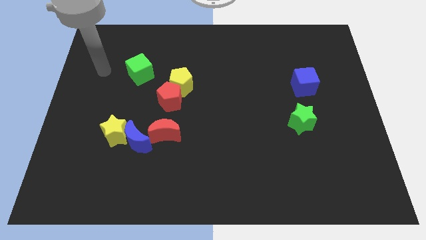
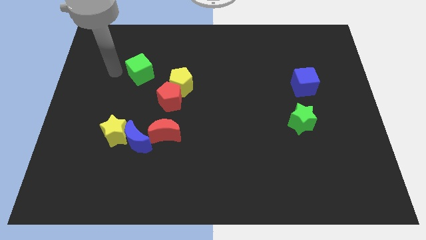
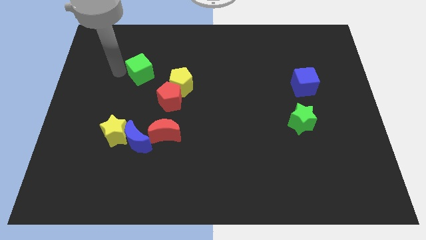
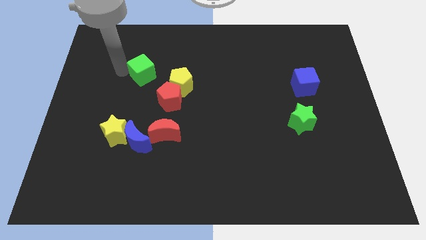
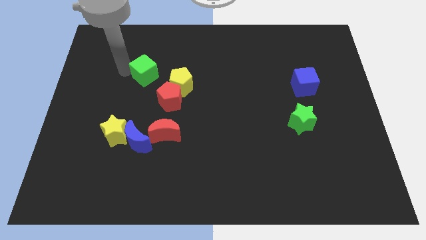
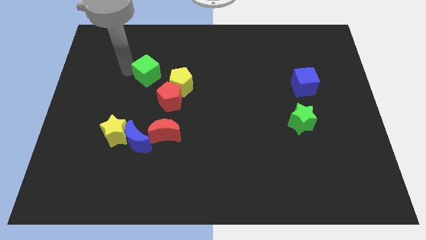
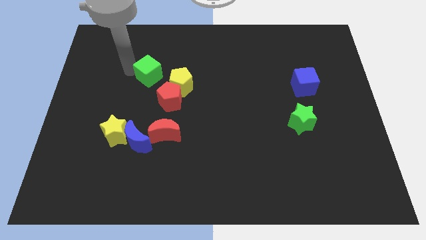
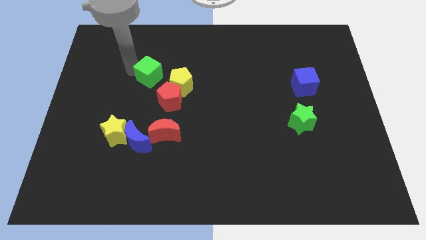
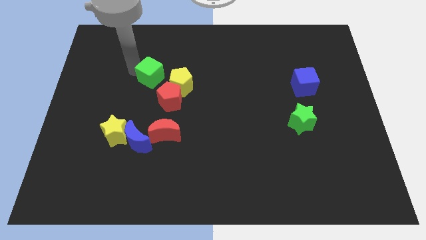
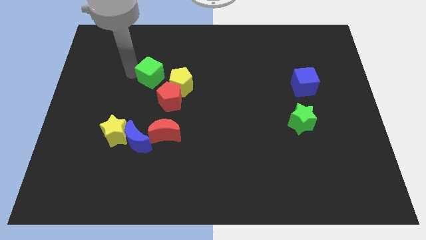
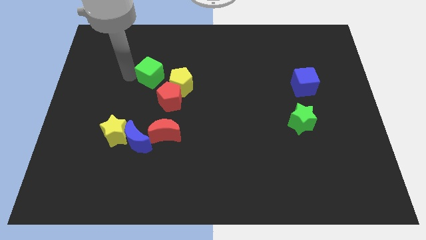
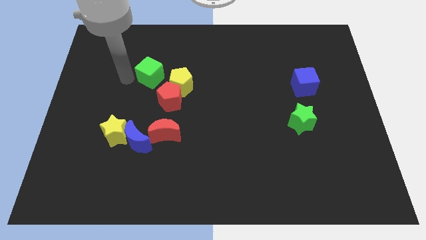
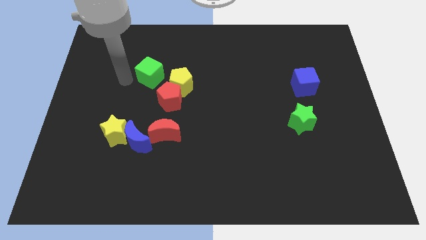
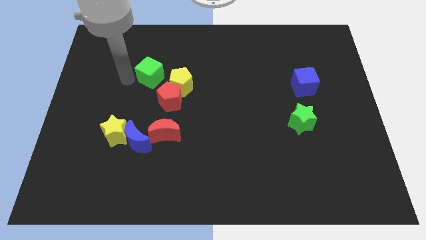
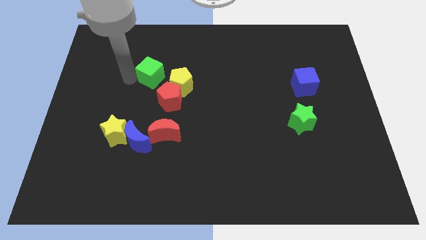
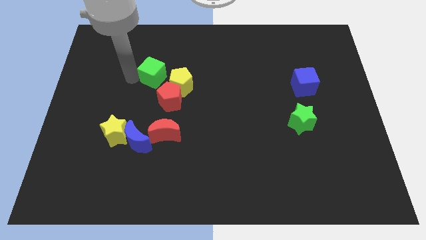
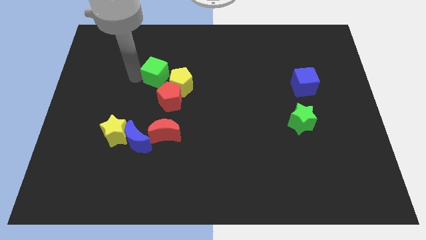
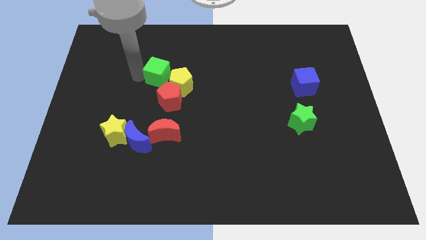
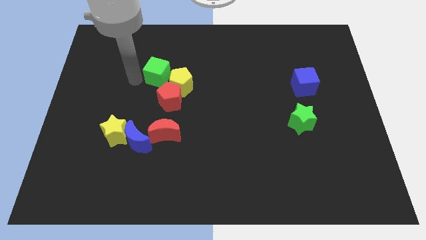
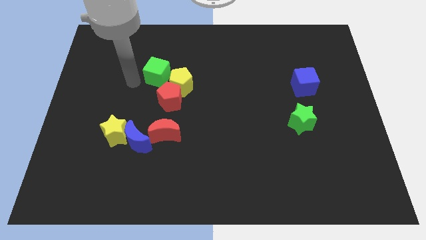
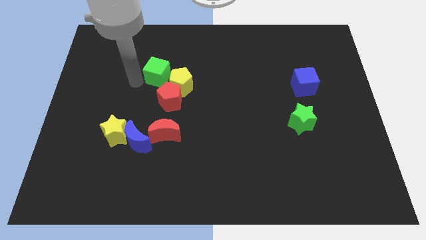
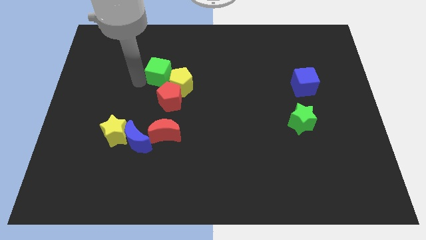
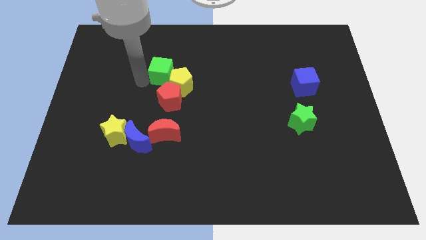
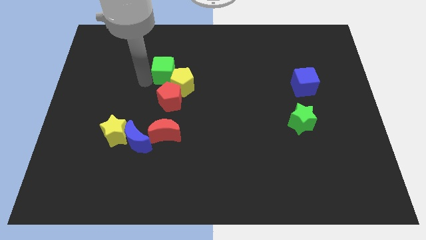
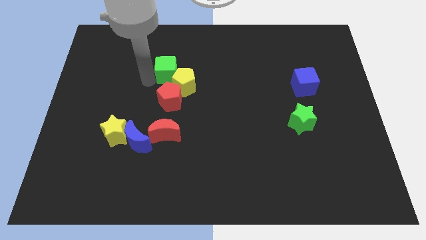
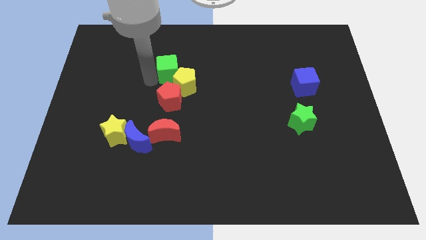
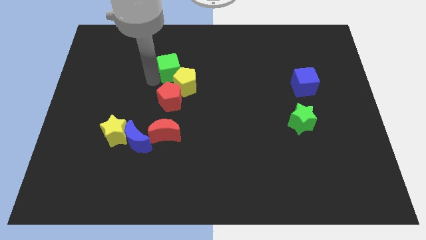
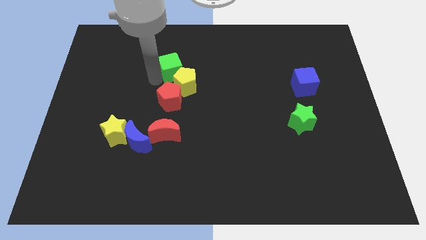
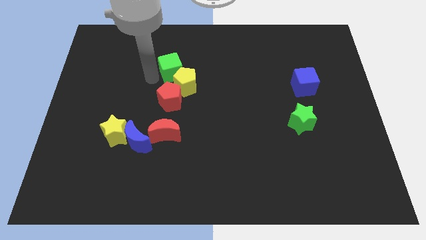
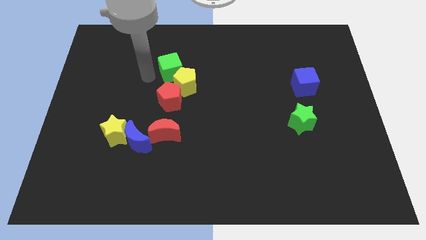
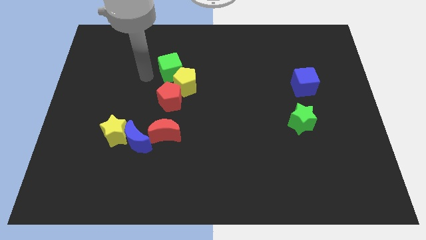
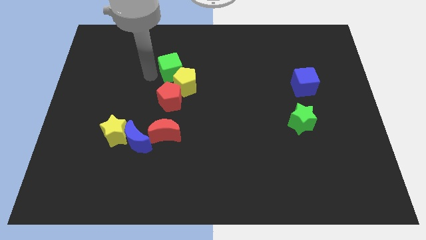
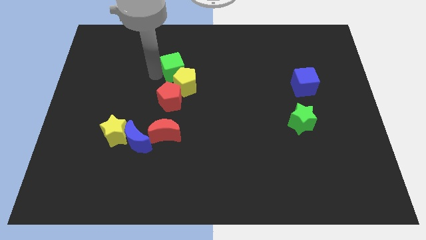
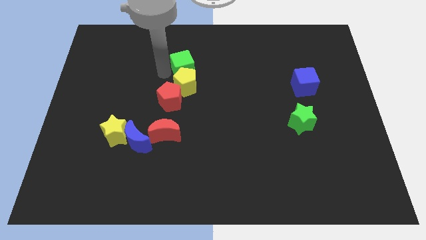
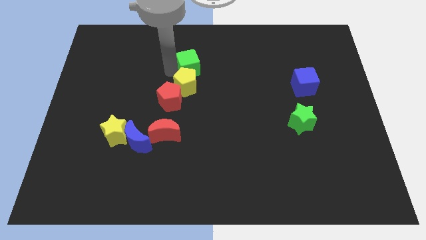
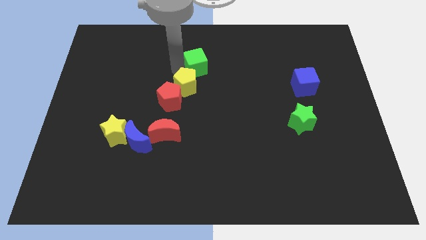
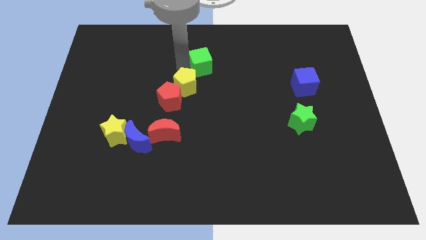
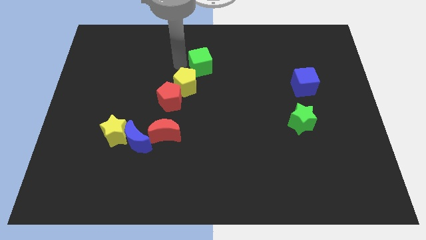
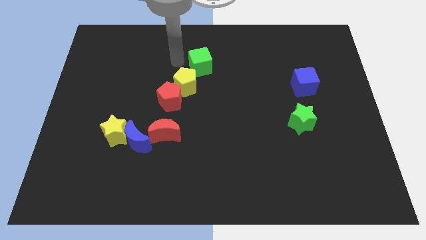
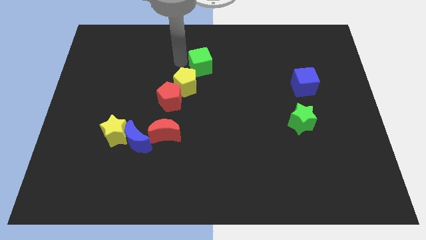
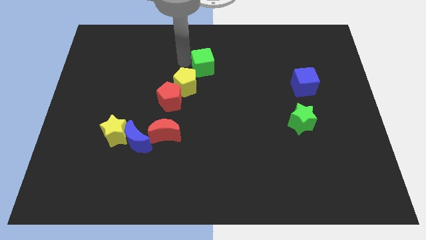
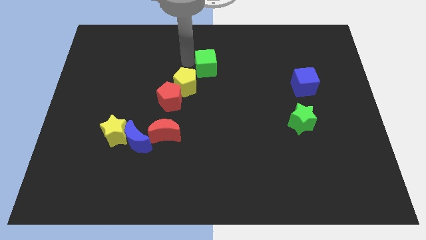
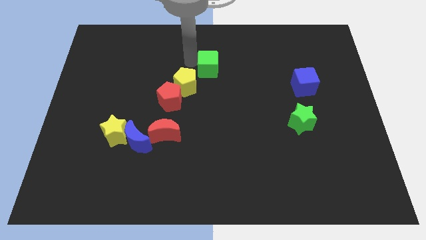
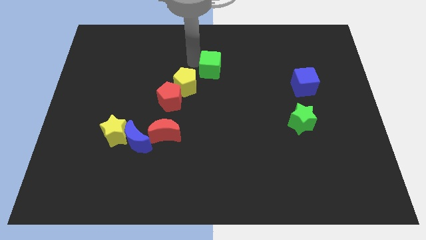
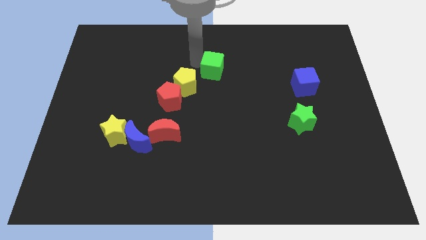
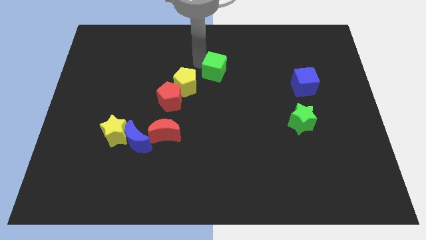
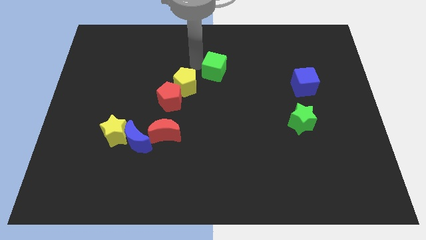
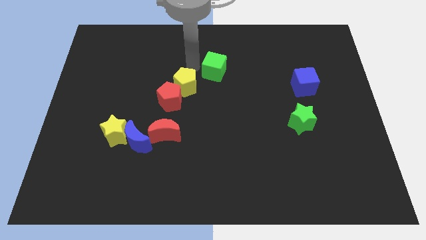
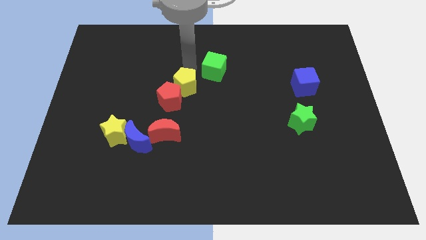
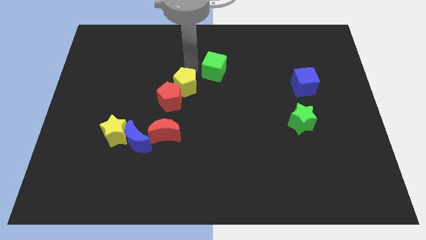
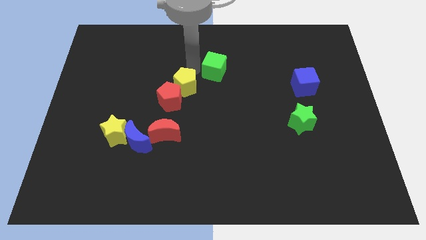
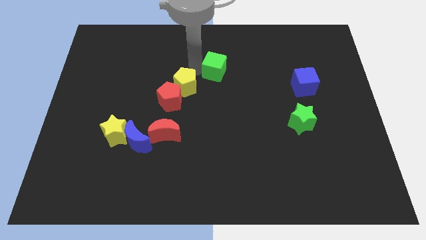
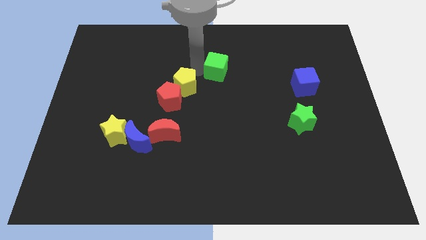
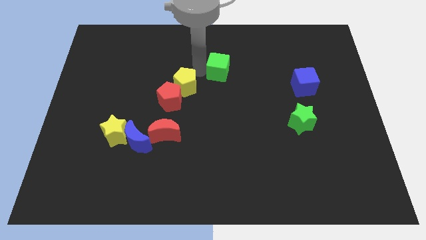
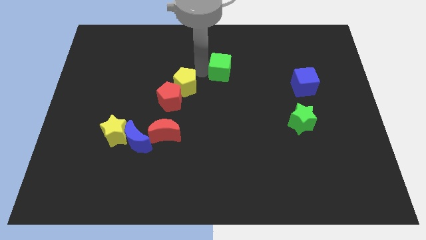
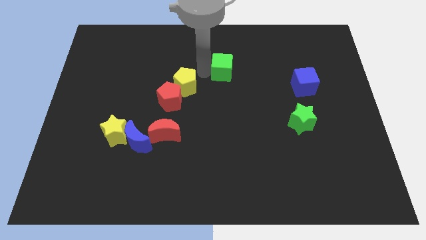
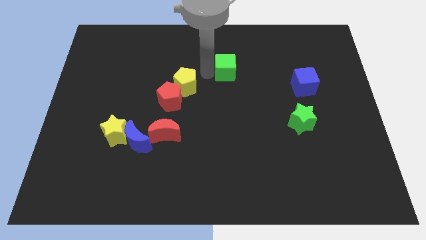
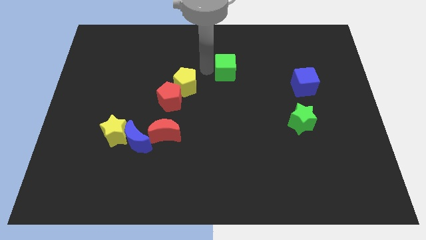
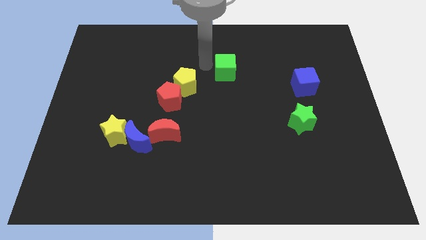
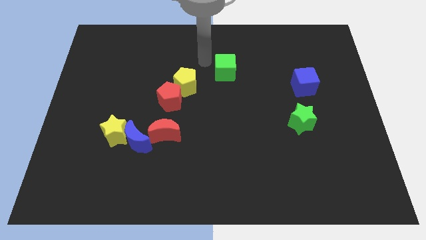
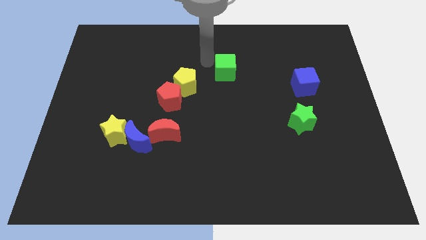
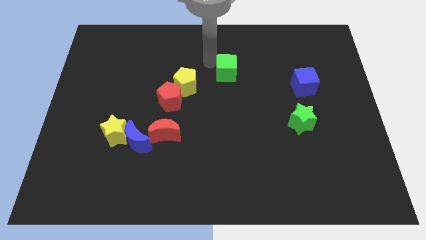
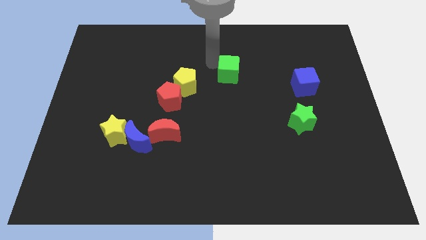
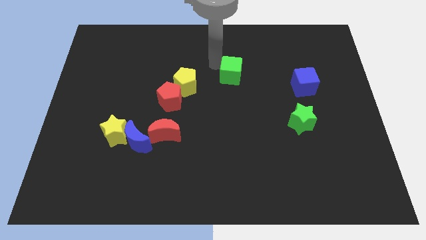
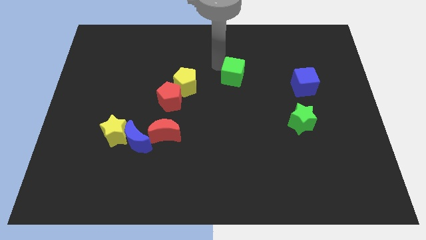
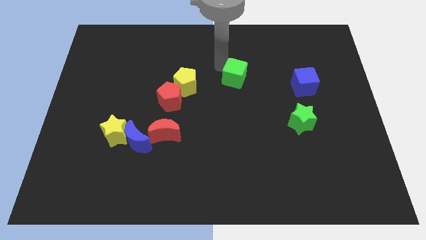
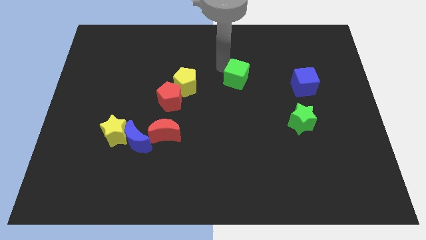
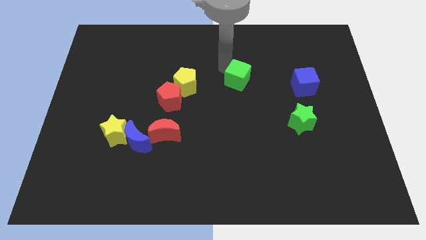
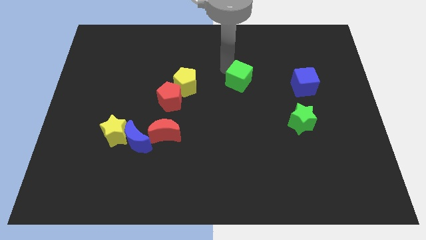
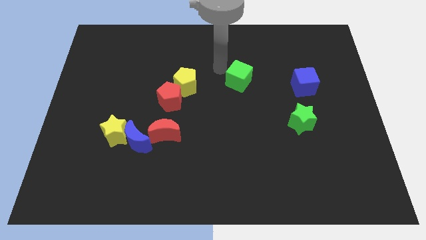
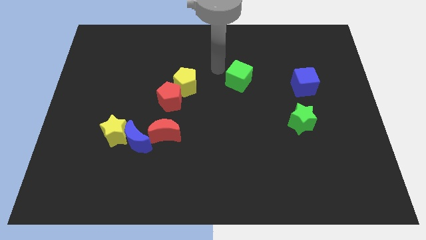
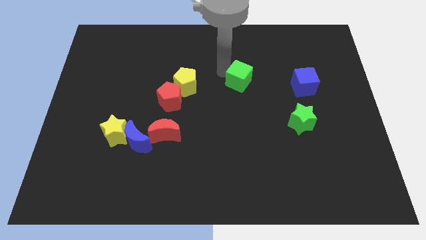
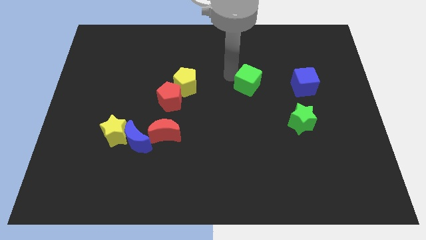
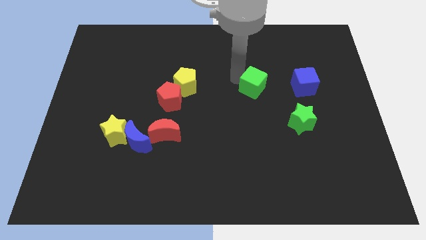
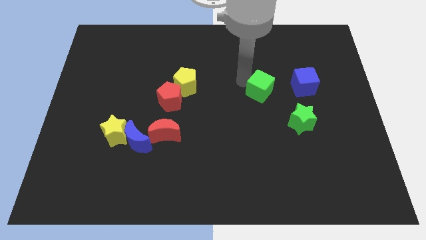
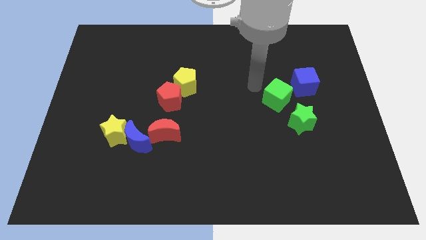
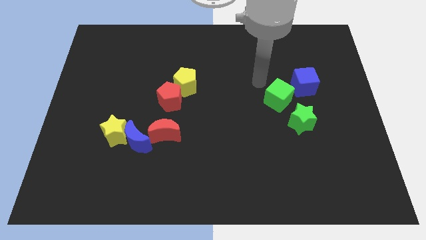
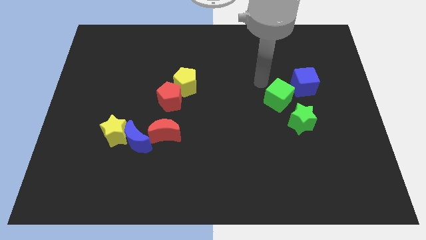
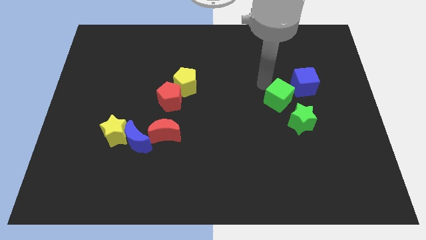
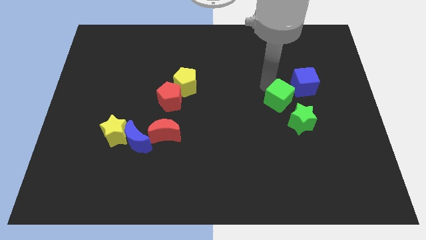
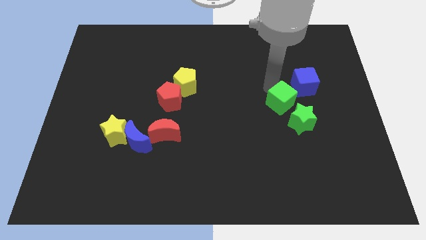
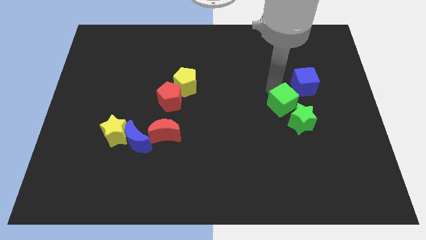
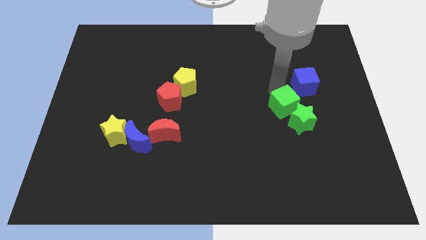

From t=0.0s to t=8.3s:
slide the green cube towards the green star
